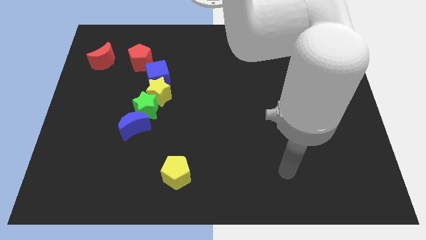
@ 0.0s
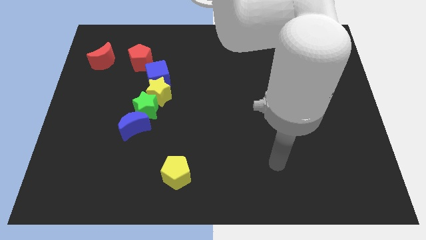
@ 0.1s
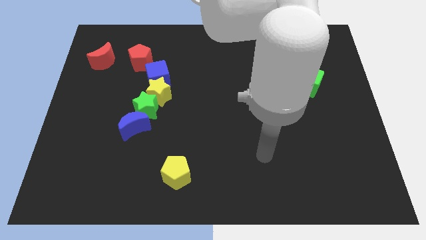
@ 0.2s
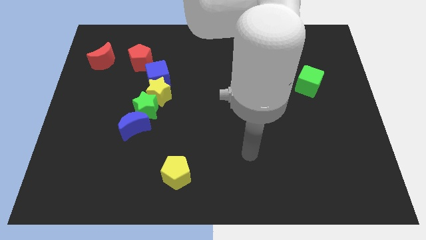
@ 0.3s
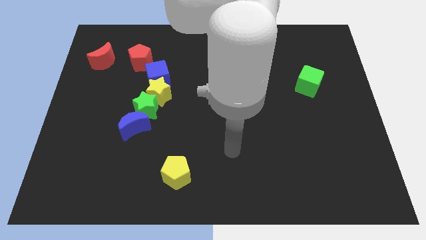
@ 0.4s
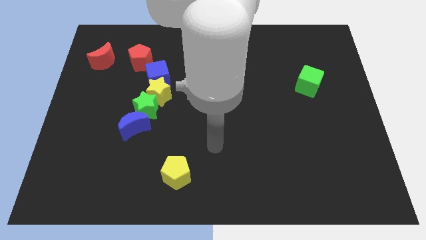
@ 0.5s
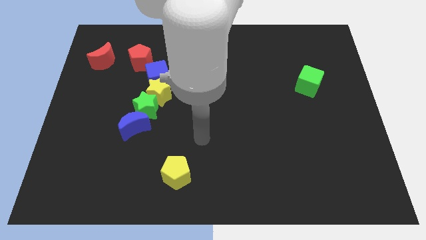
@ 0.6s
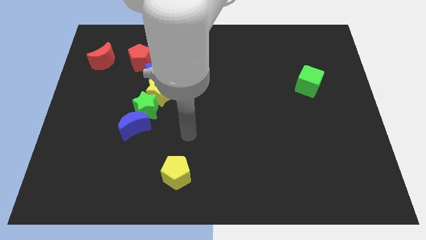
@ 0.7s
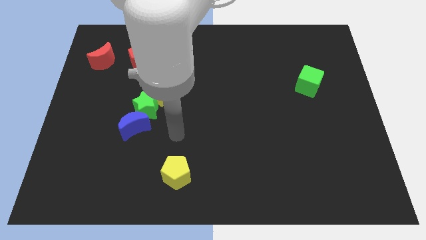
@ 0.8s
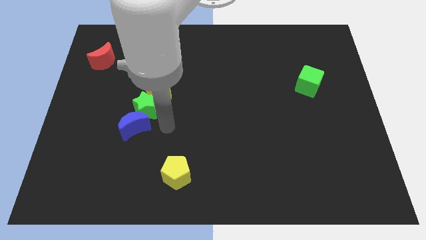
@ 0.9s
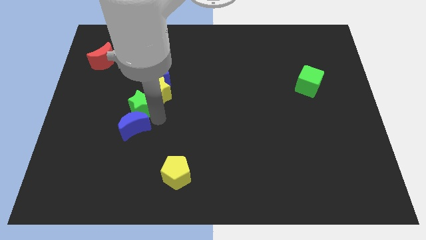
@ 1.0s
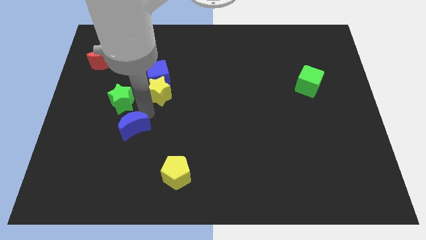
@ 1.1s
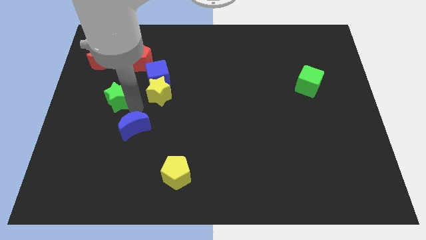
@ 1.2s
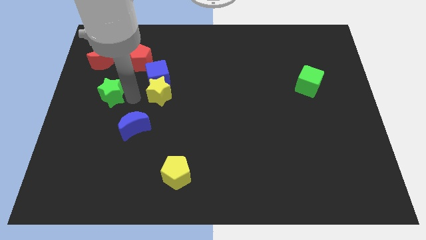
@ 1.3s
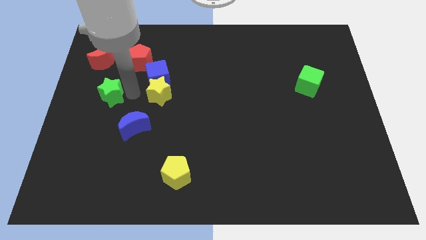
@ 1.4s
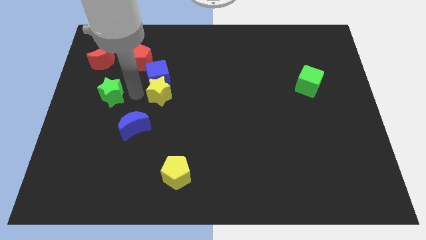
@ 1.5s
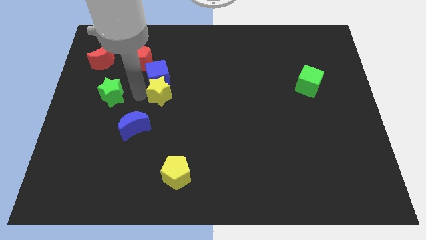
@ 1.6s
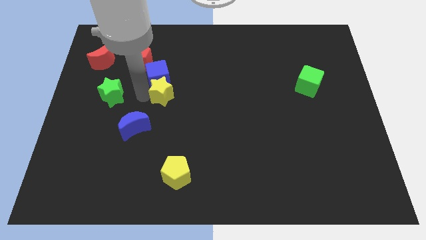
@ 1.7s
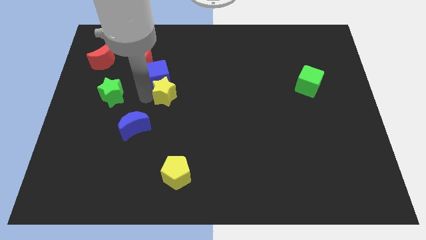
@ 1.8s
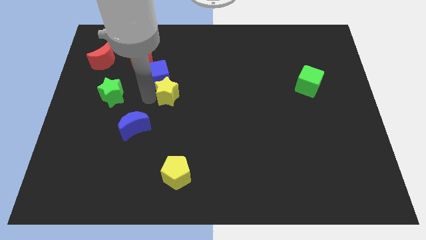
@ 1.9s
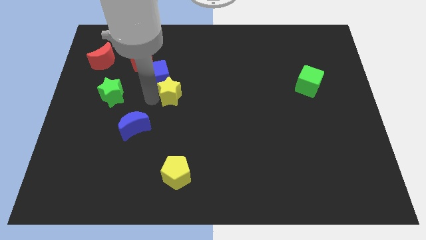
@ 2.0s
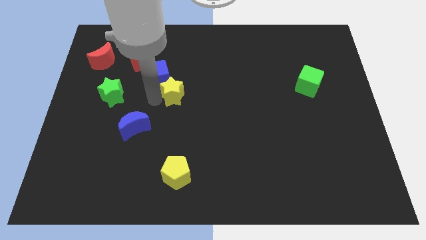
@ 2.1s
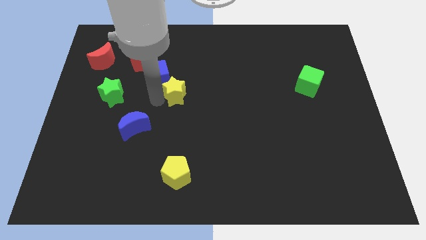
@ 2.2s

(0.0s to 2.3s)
separate the yellow star from the blue cube and green star

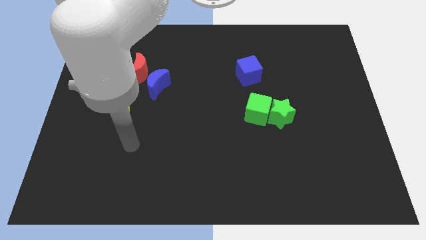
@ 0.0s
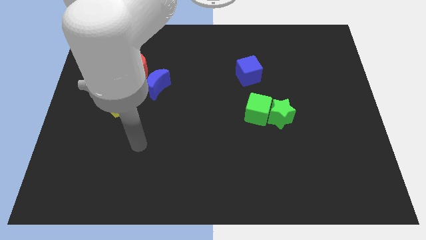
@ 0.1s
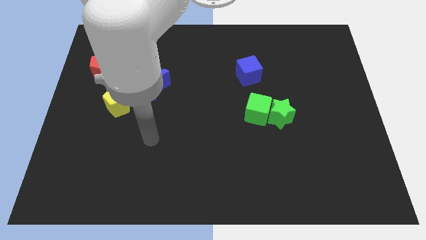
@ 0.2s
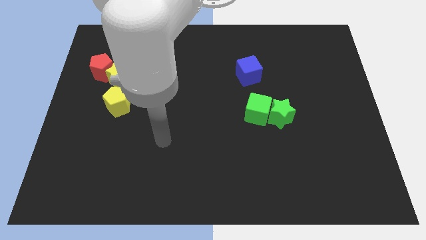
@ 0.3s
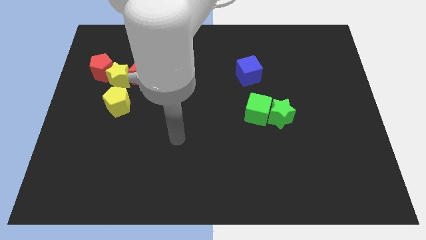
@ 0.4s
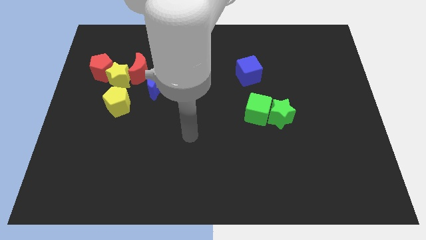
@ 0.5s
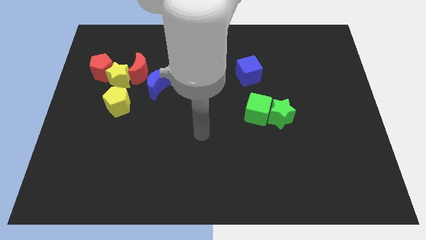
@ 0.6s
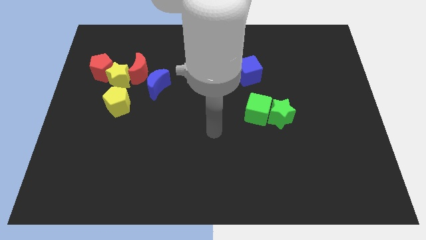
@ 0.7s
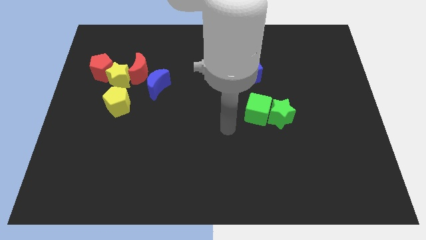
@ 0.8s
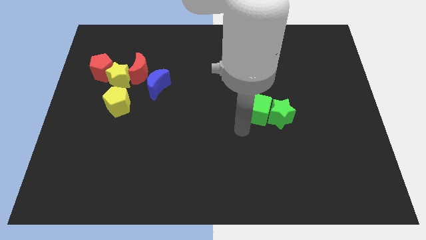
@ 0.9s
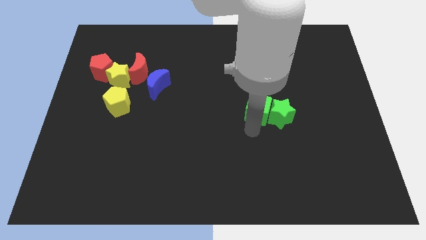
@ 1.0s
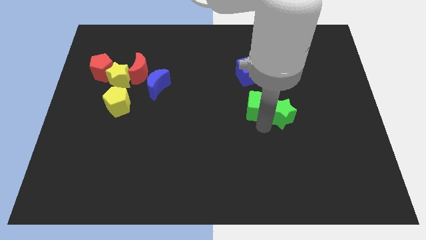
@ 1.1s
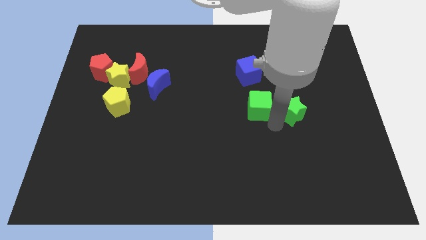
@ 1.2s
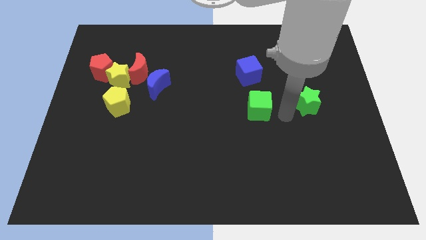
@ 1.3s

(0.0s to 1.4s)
move the green cube away from the green star

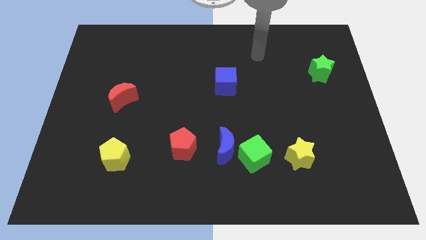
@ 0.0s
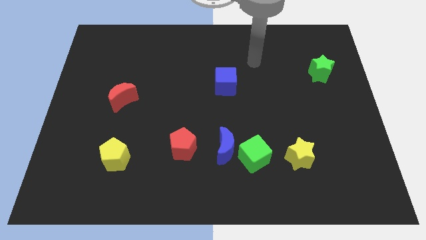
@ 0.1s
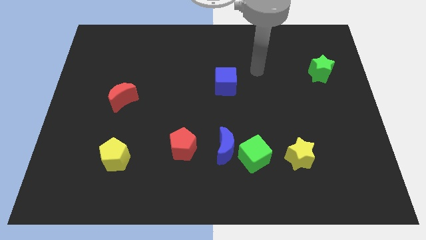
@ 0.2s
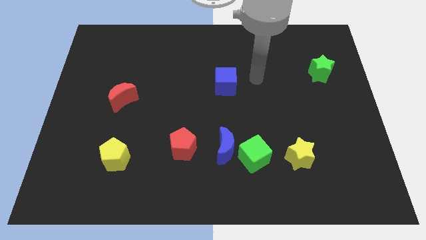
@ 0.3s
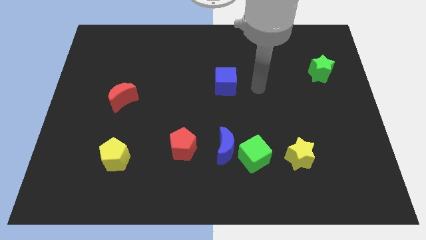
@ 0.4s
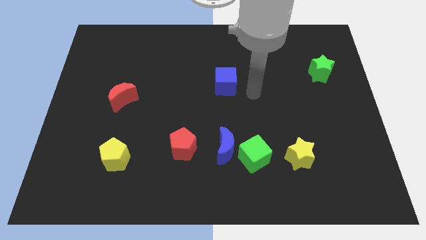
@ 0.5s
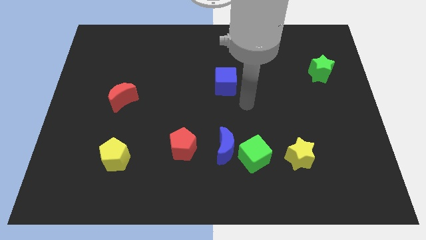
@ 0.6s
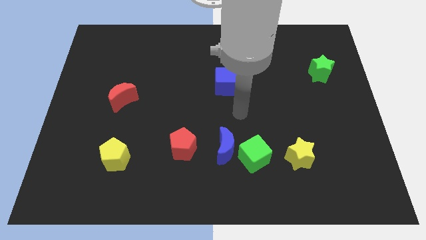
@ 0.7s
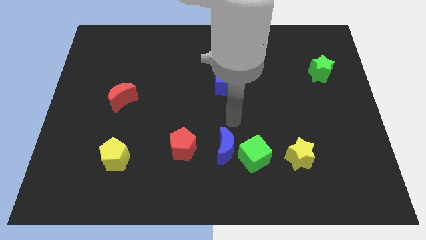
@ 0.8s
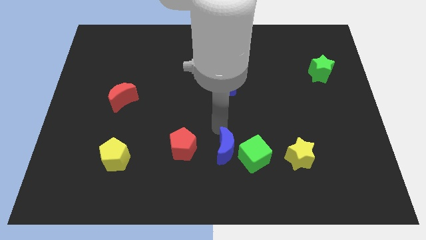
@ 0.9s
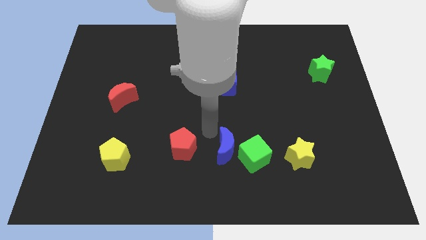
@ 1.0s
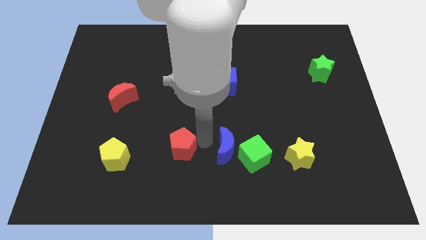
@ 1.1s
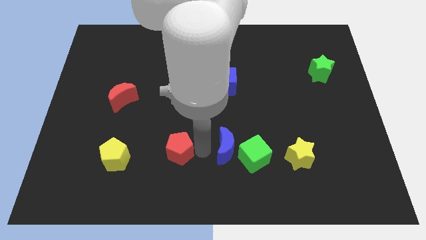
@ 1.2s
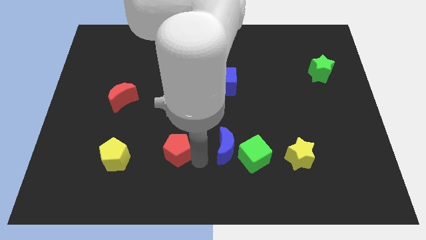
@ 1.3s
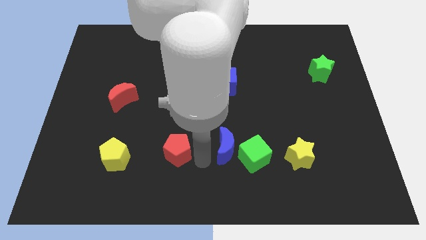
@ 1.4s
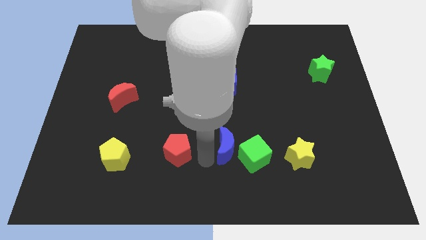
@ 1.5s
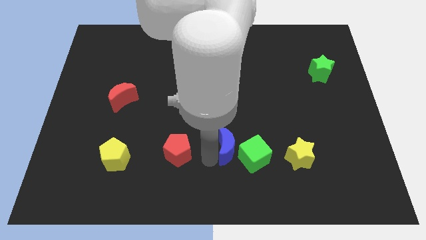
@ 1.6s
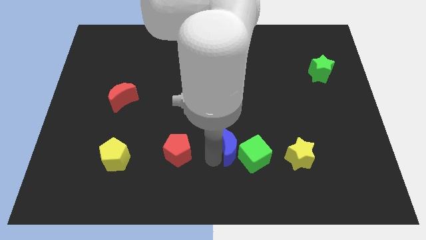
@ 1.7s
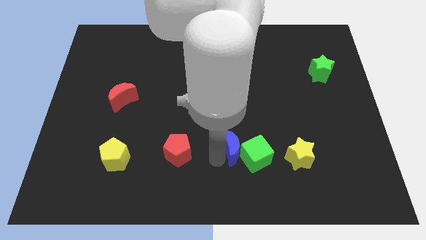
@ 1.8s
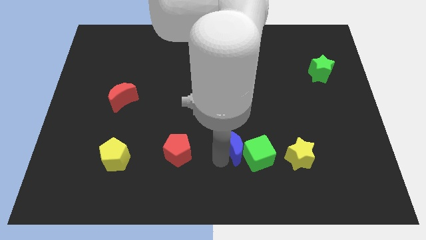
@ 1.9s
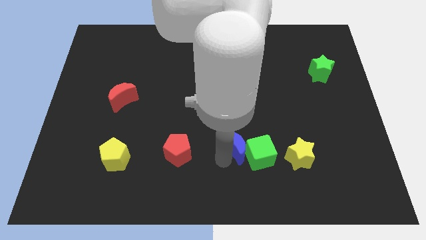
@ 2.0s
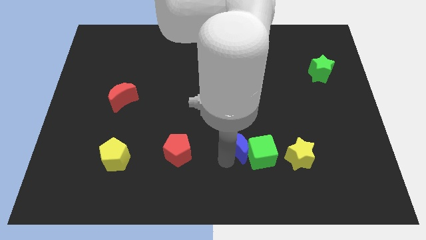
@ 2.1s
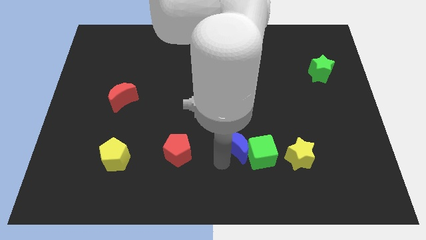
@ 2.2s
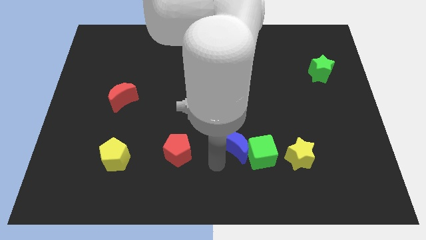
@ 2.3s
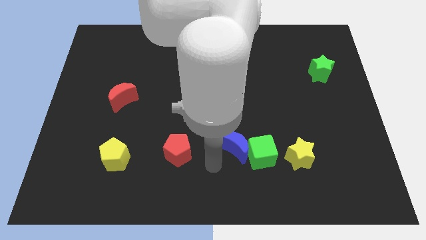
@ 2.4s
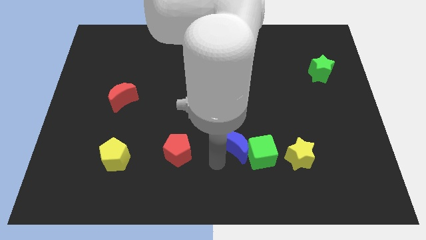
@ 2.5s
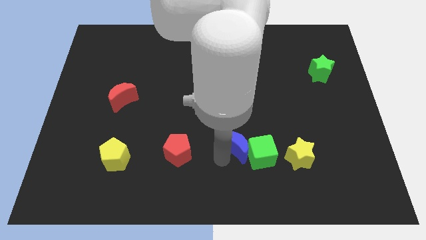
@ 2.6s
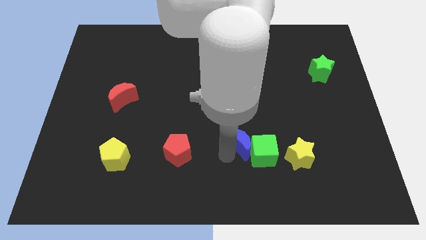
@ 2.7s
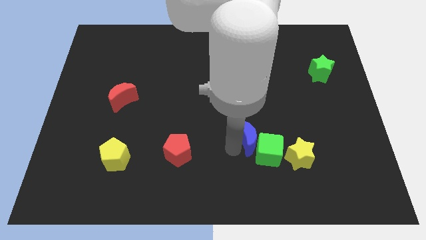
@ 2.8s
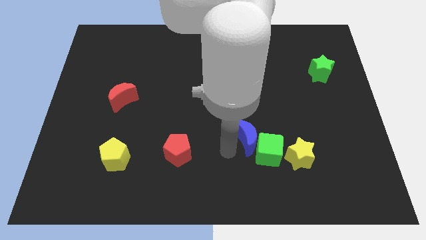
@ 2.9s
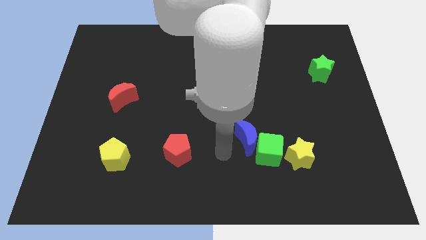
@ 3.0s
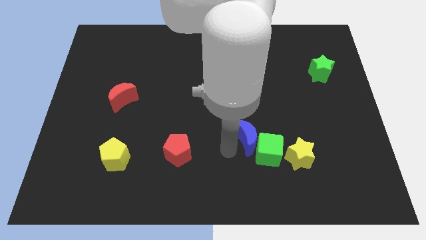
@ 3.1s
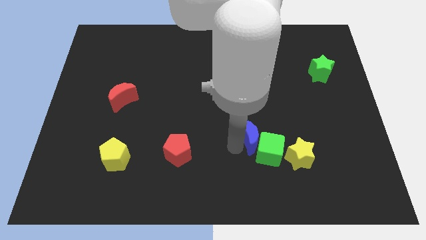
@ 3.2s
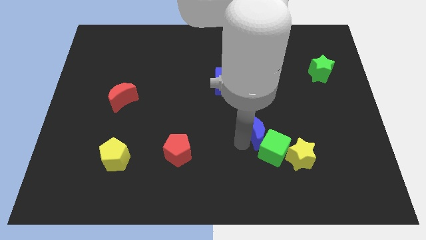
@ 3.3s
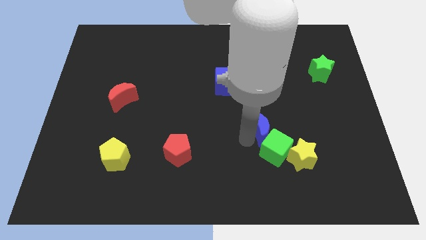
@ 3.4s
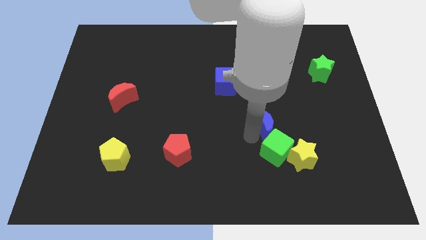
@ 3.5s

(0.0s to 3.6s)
pull the blue moon apart from the green cube and red pentagon

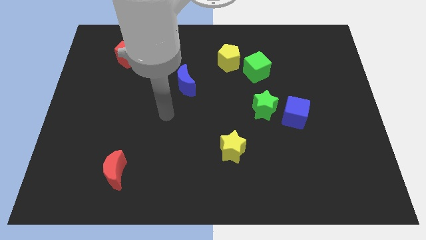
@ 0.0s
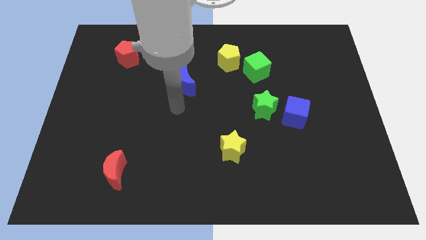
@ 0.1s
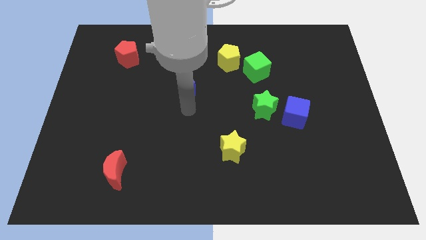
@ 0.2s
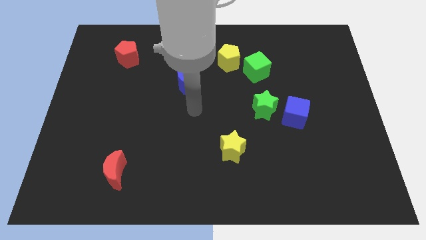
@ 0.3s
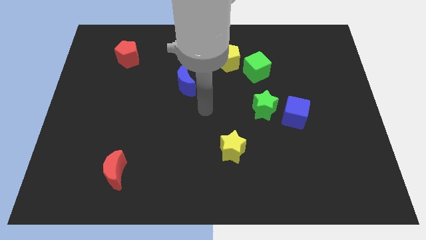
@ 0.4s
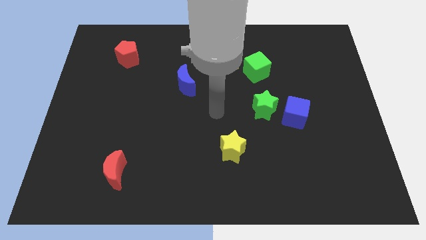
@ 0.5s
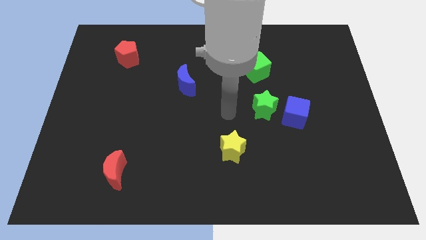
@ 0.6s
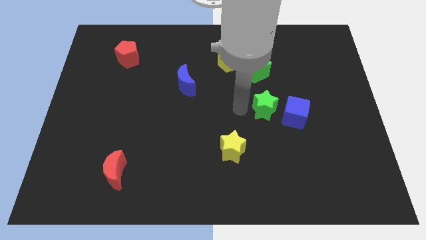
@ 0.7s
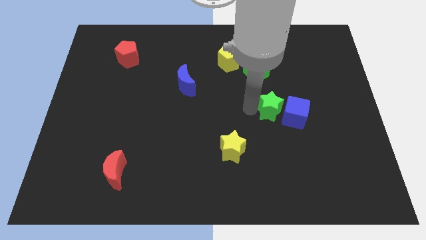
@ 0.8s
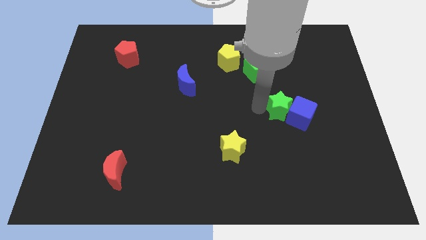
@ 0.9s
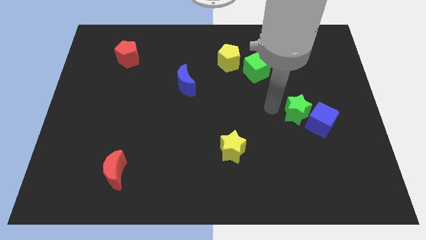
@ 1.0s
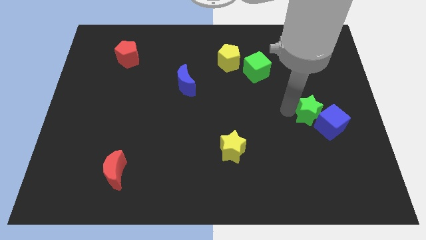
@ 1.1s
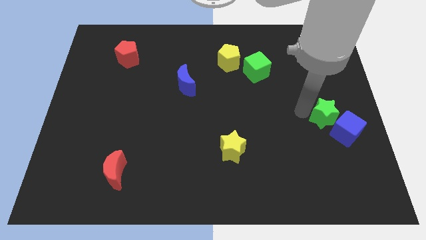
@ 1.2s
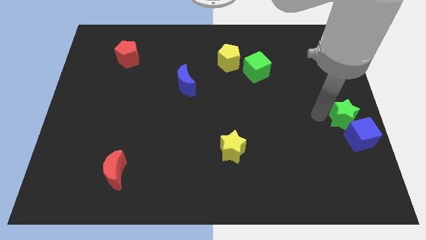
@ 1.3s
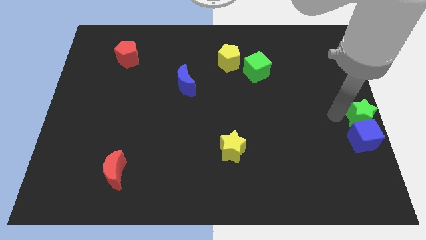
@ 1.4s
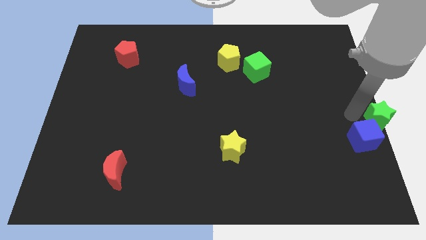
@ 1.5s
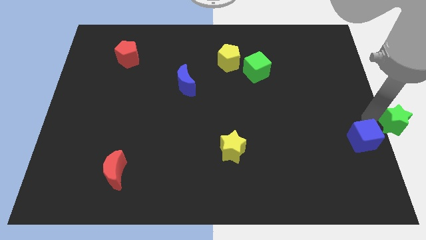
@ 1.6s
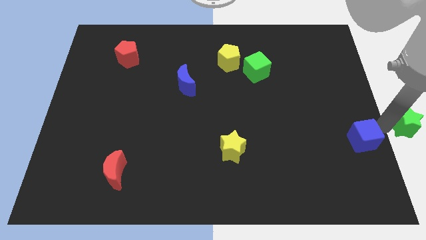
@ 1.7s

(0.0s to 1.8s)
pull the blue cube apart from the green star

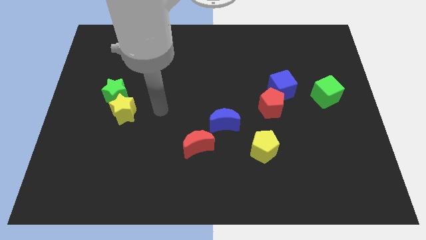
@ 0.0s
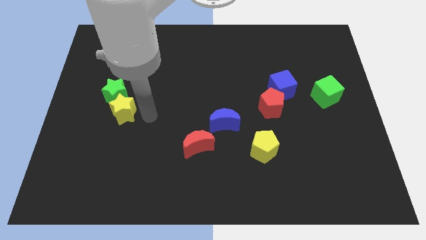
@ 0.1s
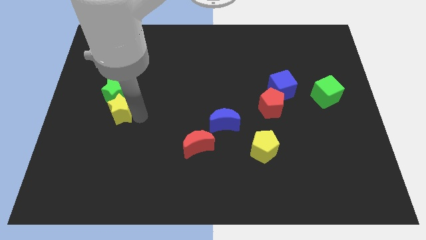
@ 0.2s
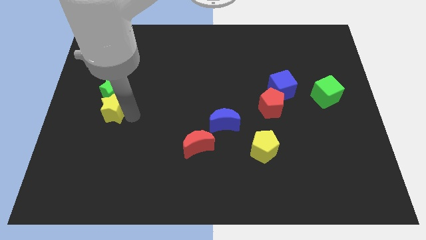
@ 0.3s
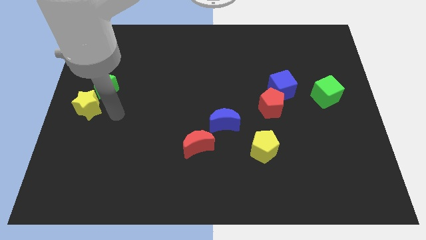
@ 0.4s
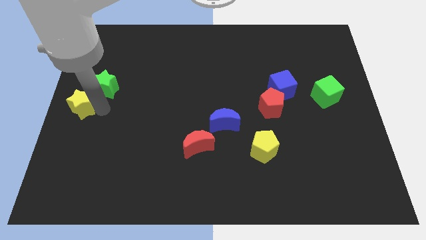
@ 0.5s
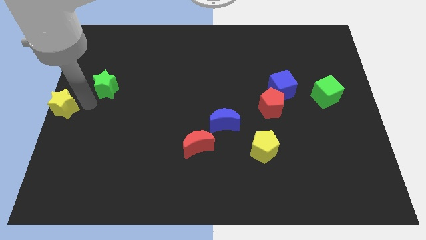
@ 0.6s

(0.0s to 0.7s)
move the green star away from the yellow star
